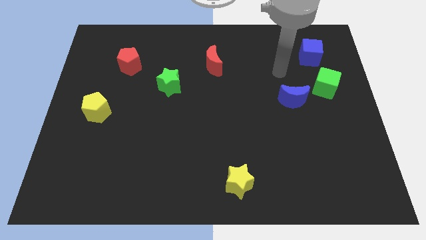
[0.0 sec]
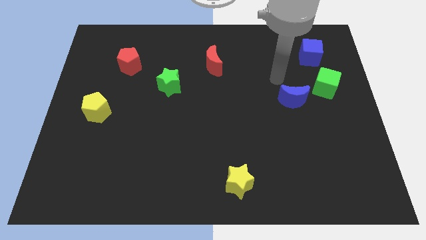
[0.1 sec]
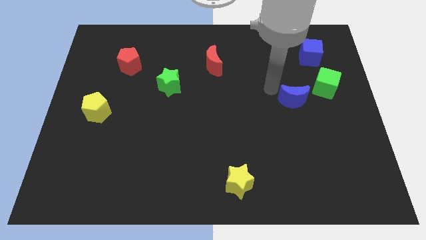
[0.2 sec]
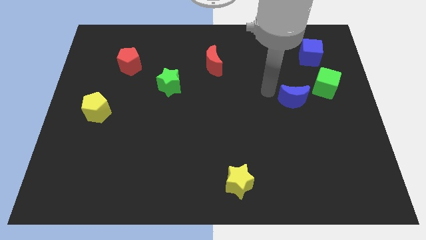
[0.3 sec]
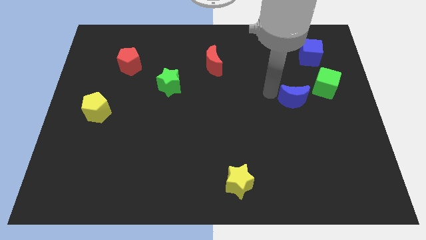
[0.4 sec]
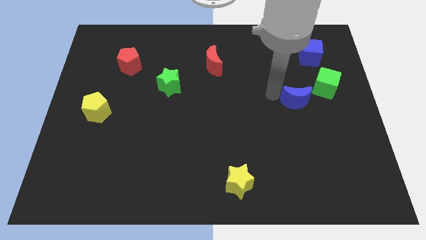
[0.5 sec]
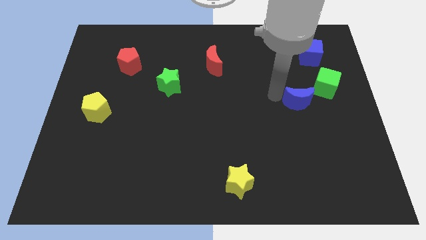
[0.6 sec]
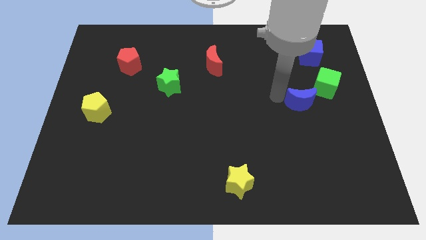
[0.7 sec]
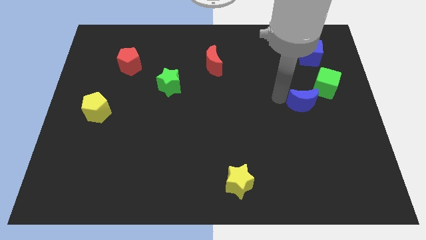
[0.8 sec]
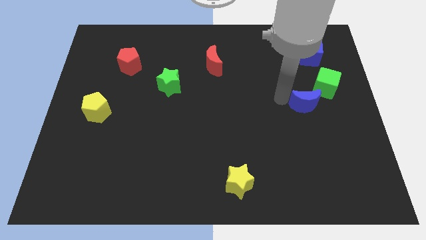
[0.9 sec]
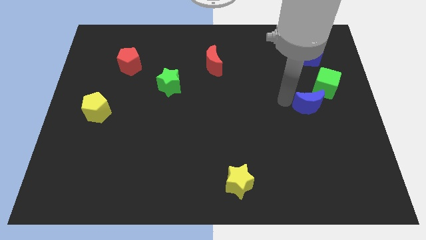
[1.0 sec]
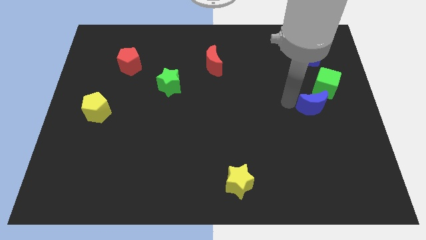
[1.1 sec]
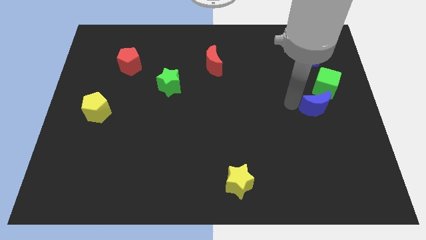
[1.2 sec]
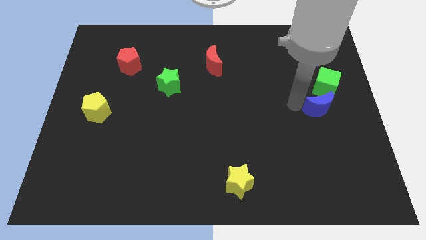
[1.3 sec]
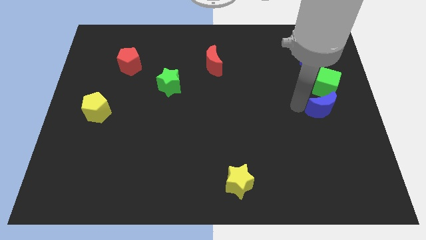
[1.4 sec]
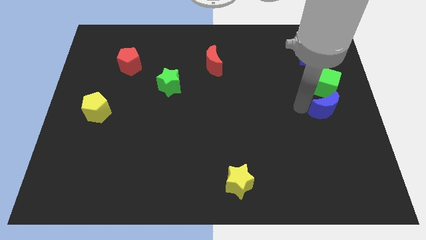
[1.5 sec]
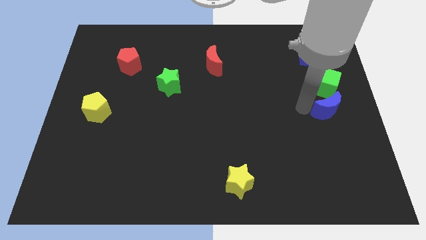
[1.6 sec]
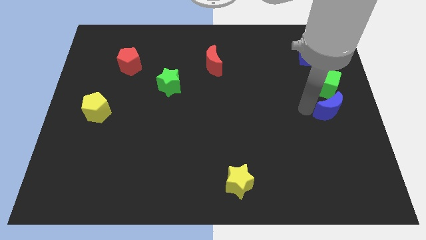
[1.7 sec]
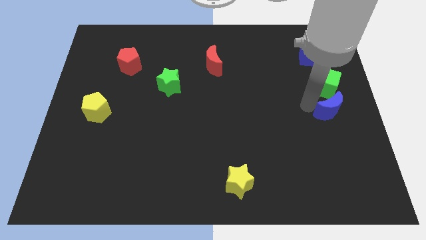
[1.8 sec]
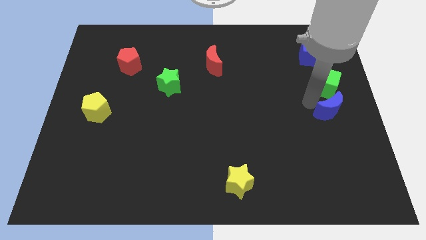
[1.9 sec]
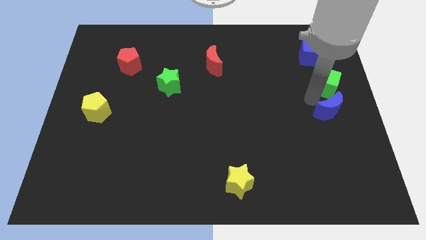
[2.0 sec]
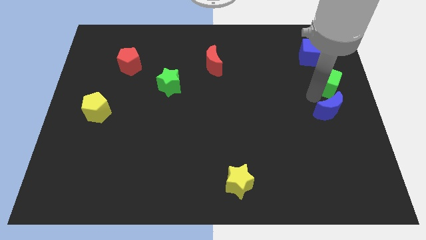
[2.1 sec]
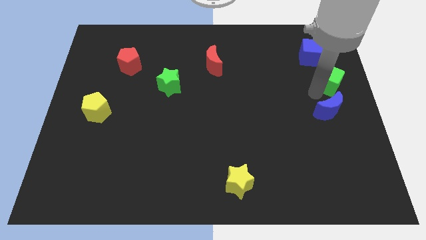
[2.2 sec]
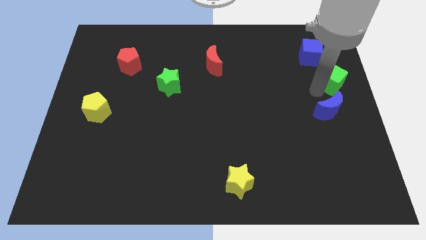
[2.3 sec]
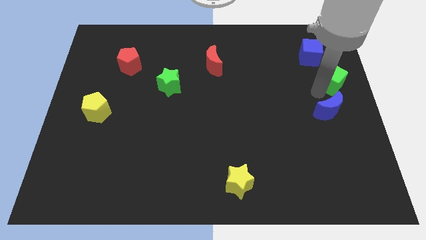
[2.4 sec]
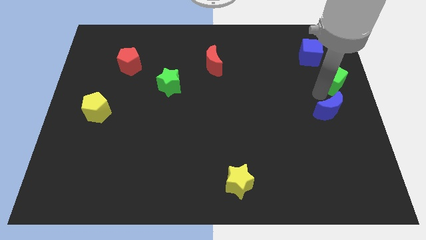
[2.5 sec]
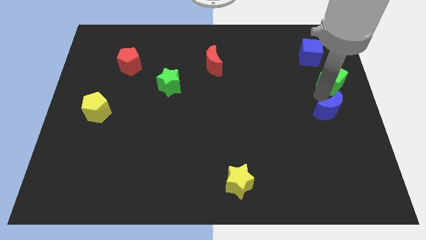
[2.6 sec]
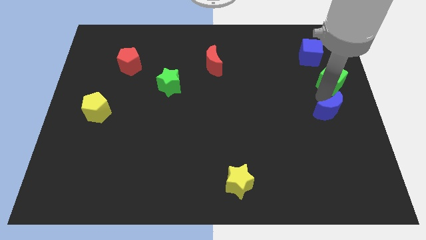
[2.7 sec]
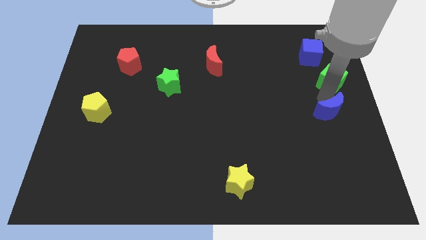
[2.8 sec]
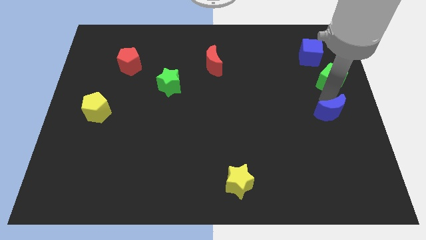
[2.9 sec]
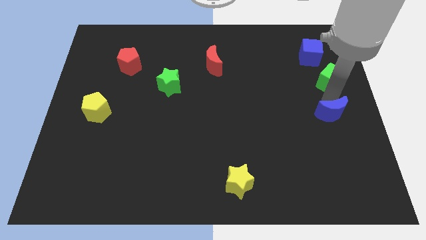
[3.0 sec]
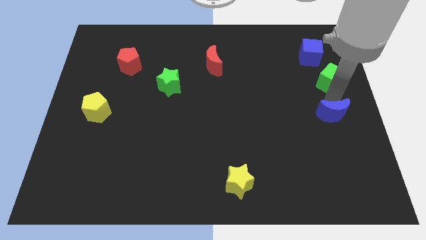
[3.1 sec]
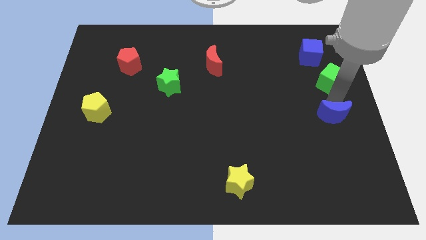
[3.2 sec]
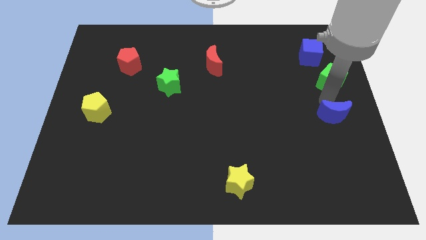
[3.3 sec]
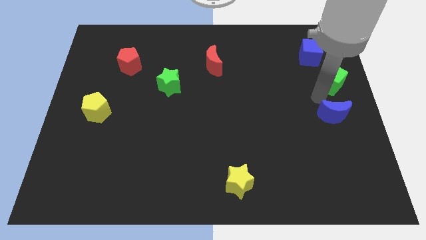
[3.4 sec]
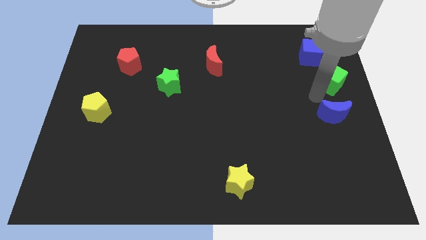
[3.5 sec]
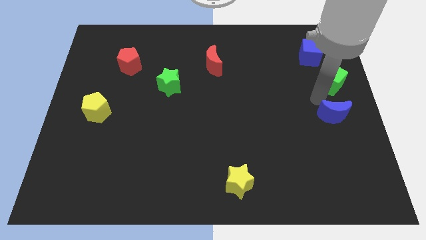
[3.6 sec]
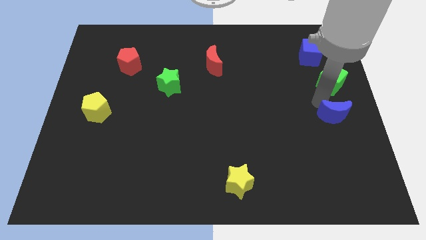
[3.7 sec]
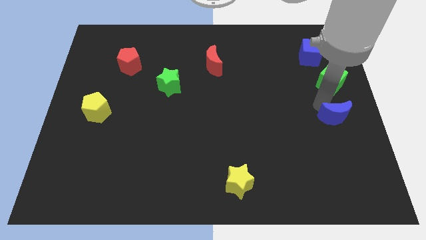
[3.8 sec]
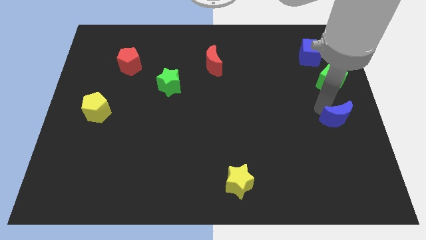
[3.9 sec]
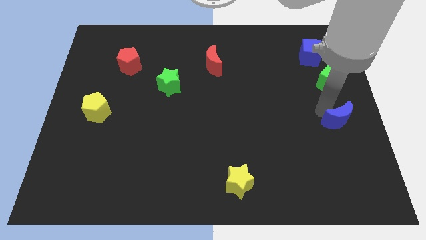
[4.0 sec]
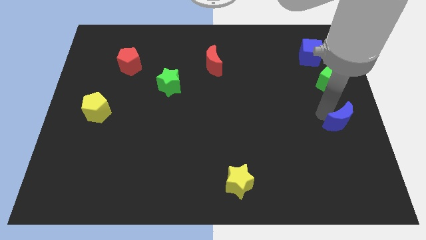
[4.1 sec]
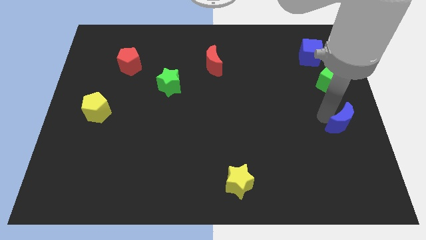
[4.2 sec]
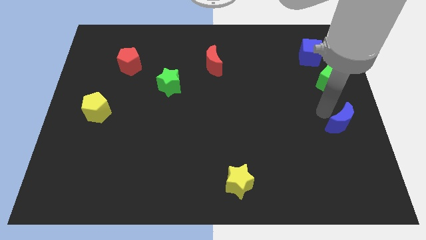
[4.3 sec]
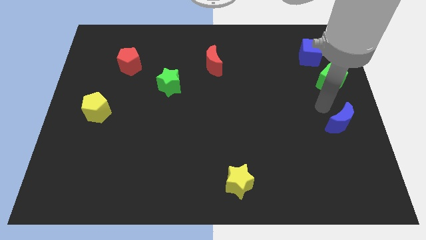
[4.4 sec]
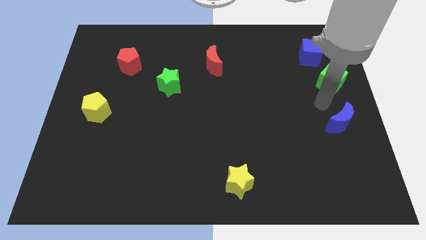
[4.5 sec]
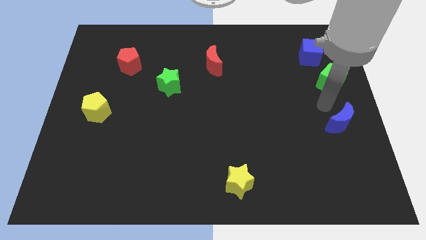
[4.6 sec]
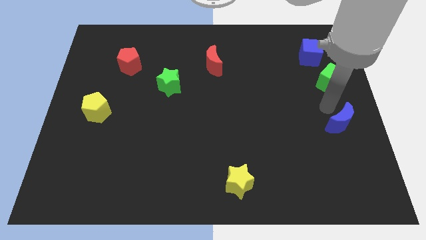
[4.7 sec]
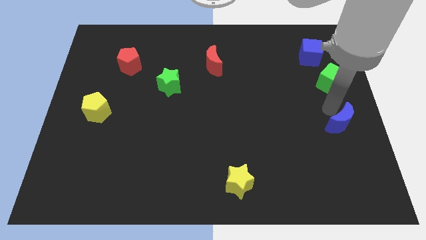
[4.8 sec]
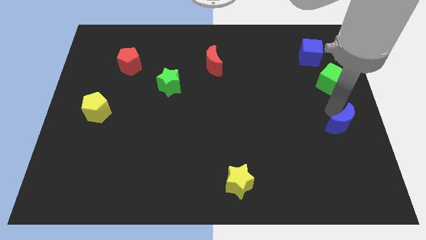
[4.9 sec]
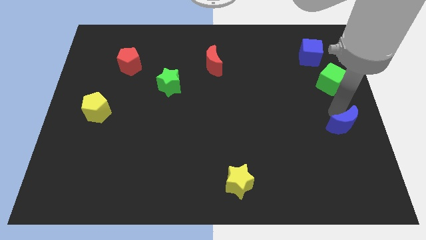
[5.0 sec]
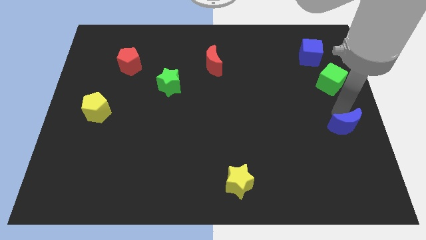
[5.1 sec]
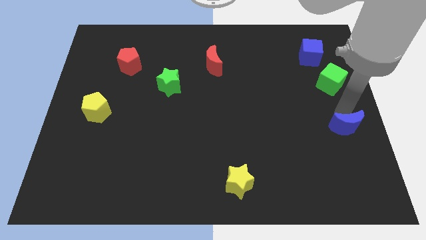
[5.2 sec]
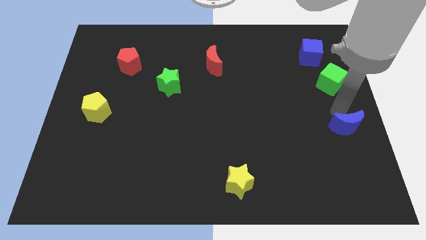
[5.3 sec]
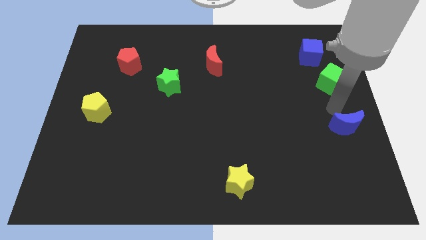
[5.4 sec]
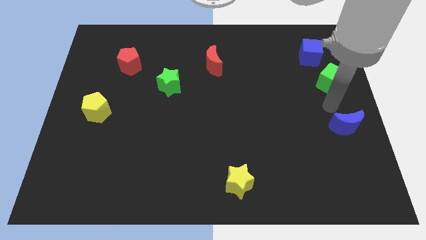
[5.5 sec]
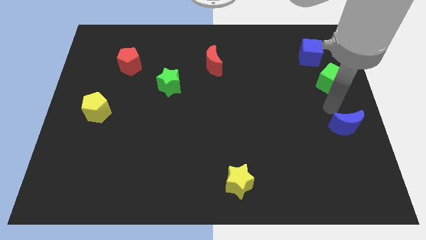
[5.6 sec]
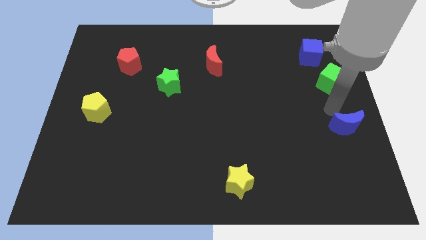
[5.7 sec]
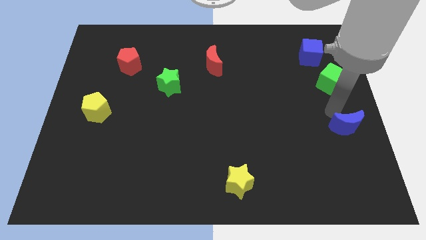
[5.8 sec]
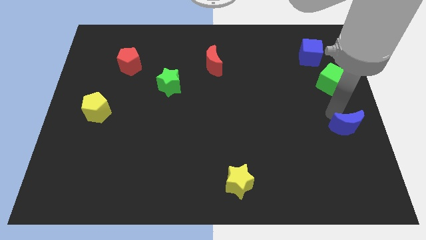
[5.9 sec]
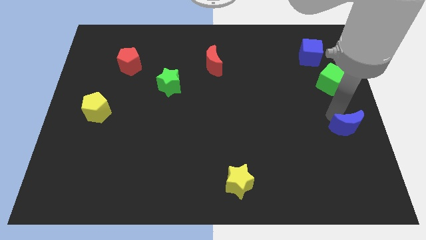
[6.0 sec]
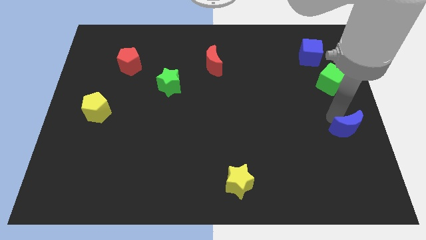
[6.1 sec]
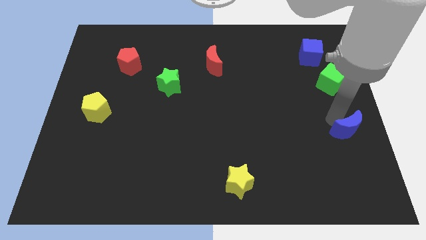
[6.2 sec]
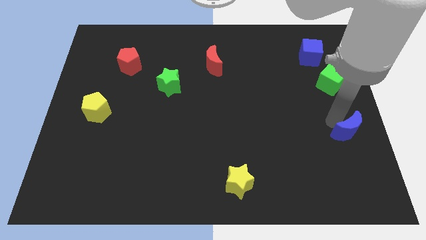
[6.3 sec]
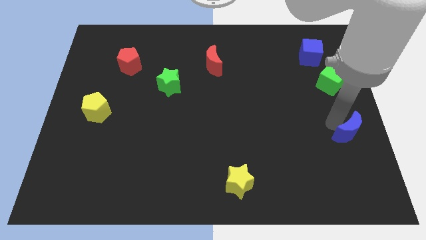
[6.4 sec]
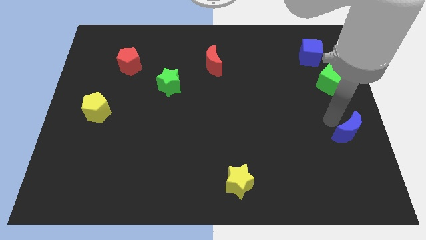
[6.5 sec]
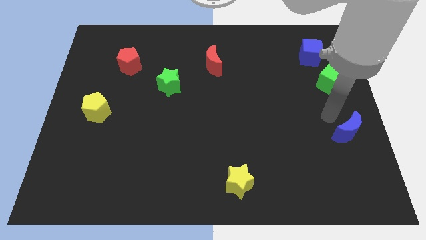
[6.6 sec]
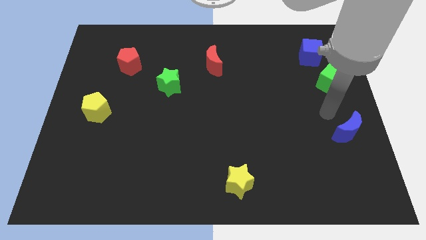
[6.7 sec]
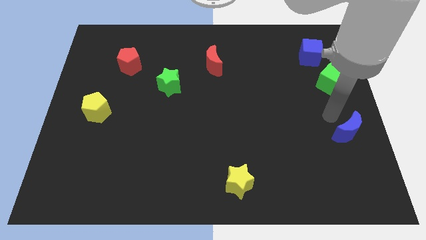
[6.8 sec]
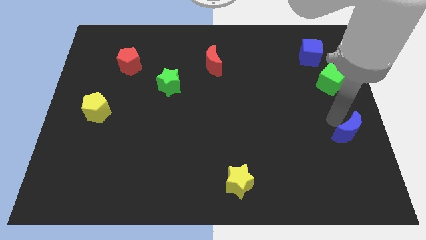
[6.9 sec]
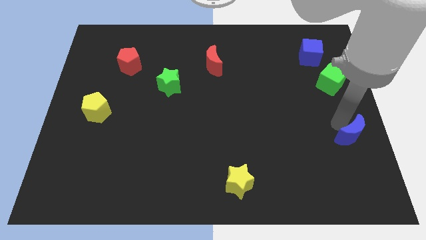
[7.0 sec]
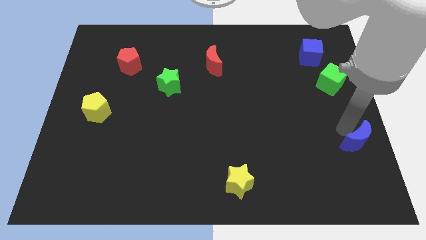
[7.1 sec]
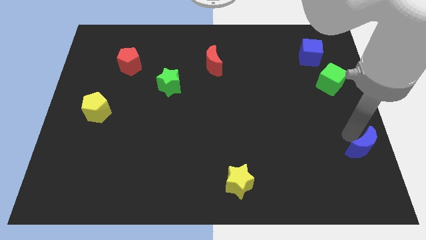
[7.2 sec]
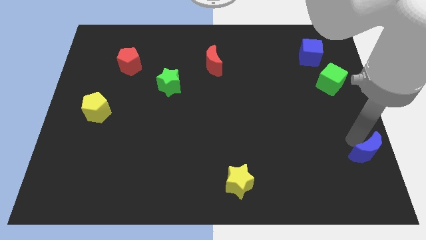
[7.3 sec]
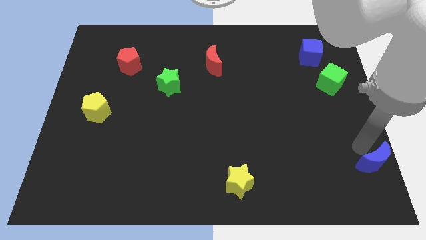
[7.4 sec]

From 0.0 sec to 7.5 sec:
move the blue moon to the bottom right corner

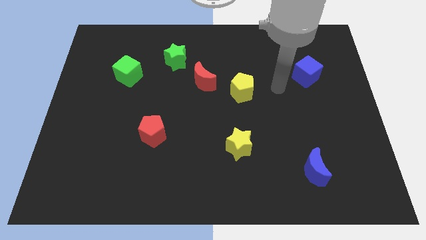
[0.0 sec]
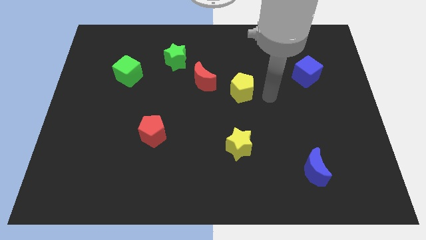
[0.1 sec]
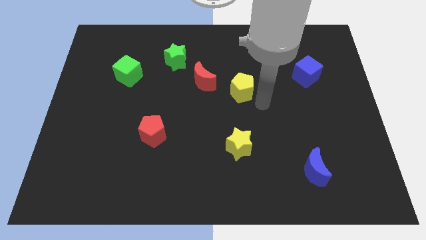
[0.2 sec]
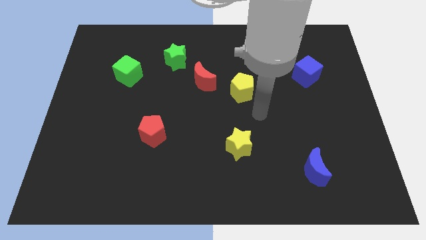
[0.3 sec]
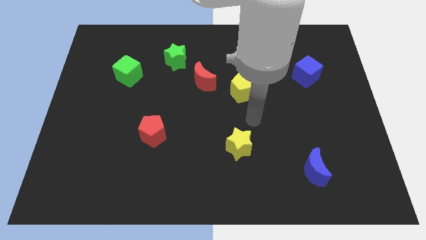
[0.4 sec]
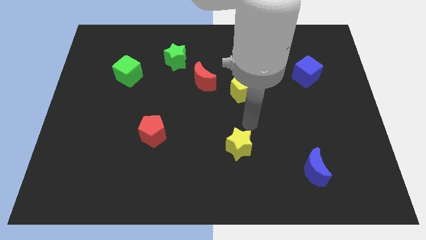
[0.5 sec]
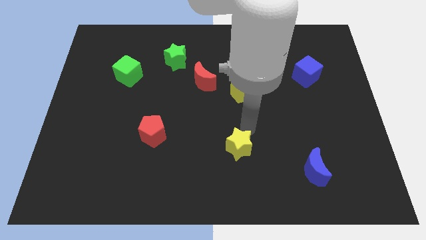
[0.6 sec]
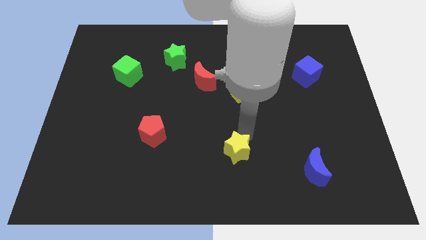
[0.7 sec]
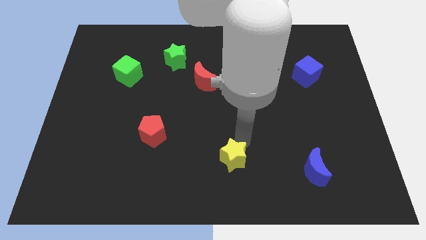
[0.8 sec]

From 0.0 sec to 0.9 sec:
slide the yellow star to the bottom side
